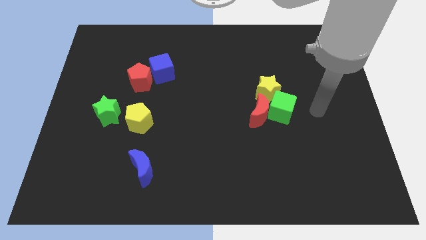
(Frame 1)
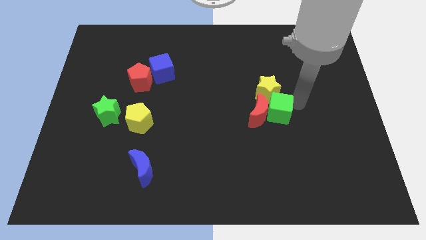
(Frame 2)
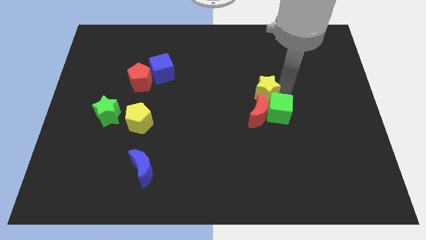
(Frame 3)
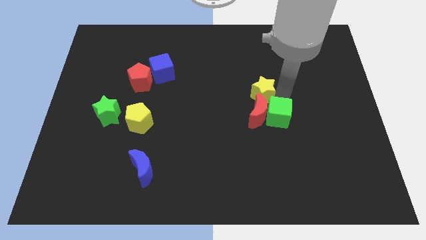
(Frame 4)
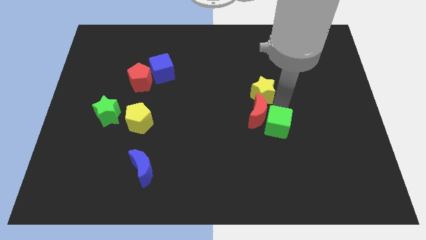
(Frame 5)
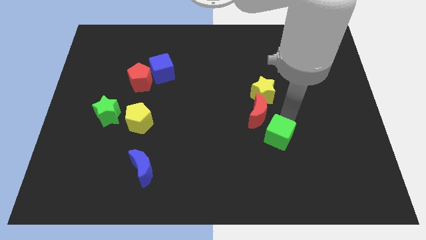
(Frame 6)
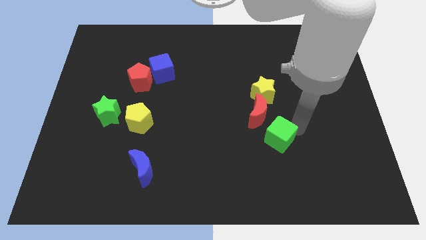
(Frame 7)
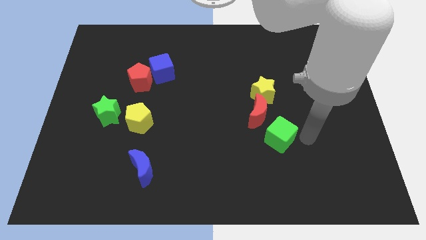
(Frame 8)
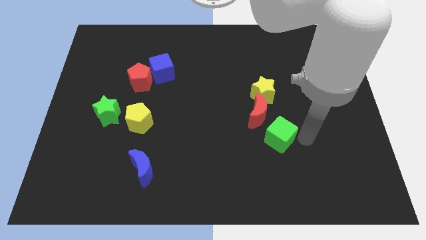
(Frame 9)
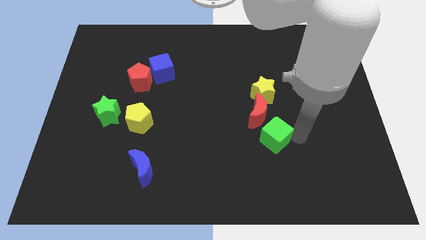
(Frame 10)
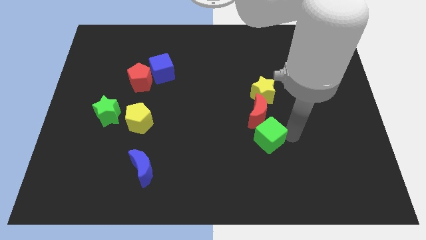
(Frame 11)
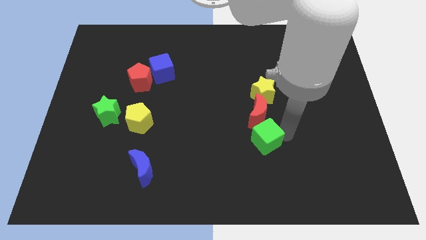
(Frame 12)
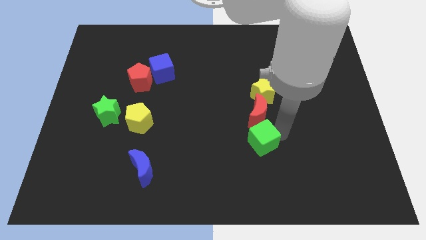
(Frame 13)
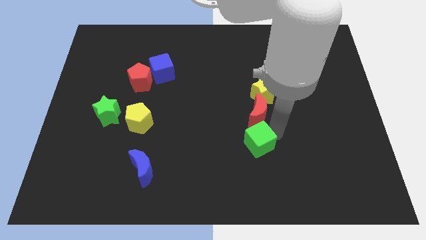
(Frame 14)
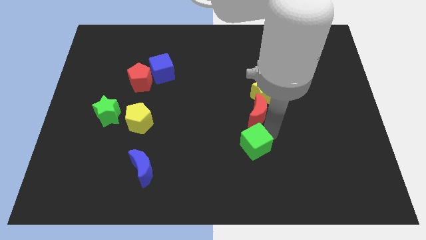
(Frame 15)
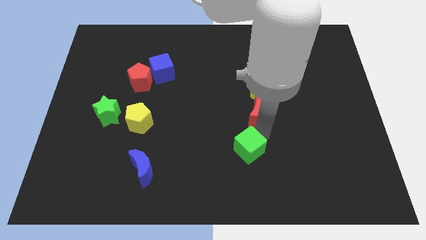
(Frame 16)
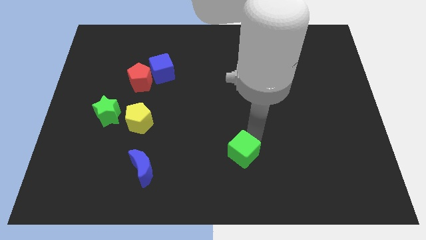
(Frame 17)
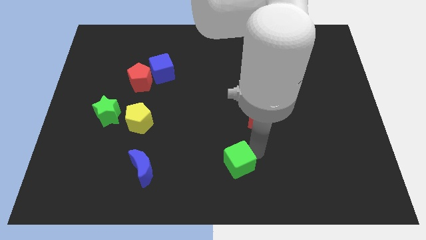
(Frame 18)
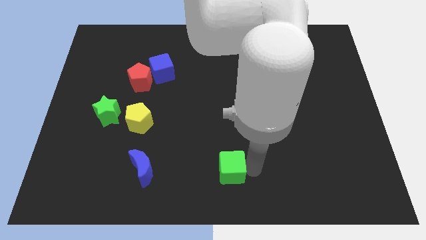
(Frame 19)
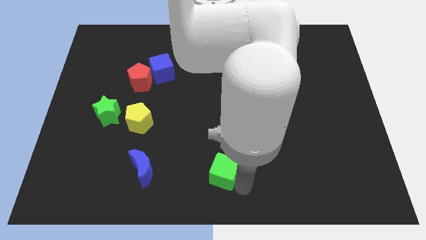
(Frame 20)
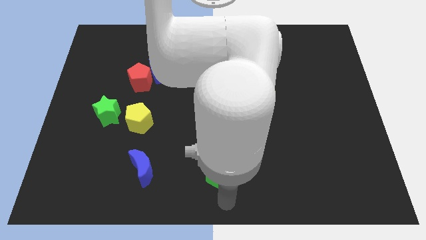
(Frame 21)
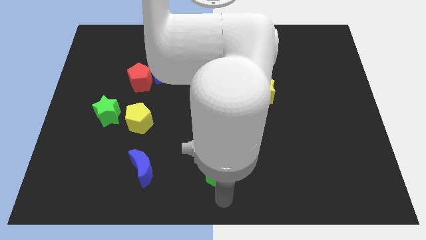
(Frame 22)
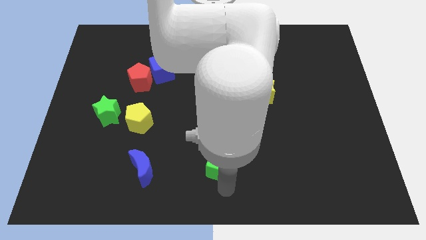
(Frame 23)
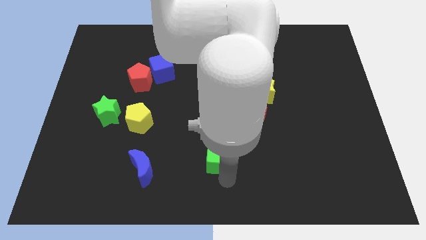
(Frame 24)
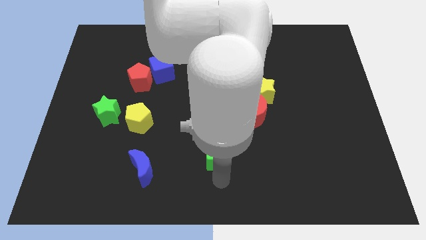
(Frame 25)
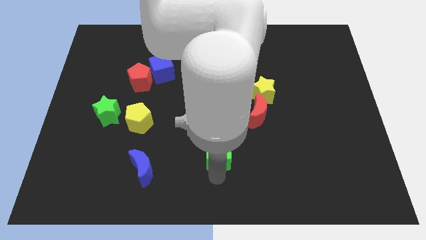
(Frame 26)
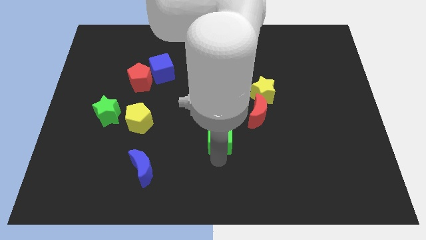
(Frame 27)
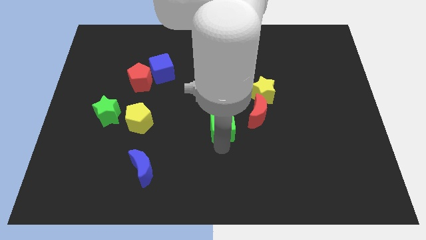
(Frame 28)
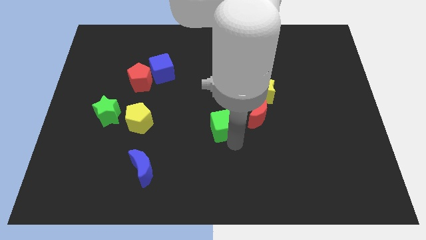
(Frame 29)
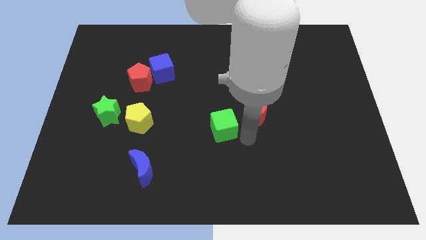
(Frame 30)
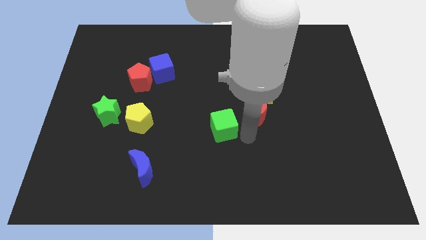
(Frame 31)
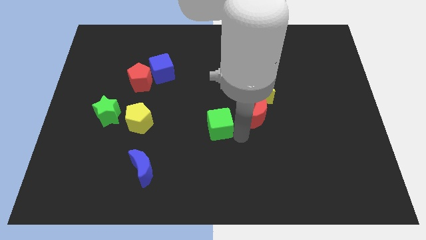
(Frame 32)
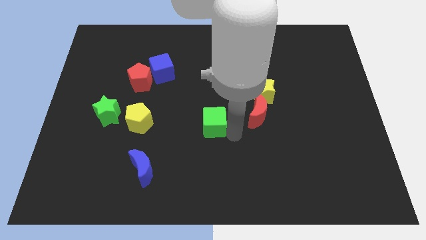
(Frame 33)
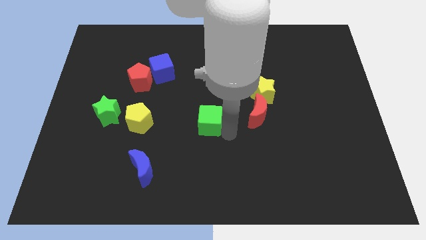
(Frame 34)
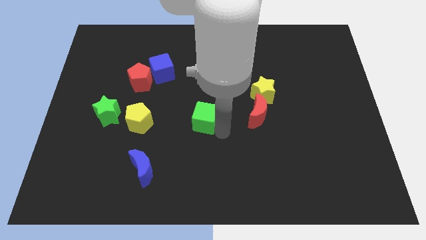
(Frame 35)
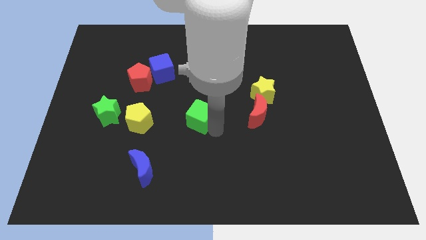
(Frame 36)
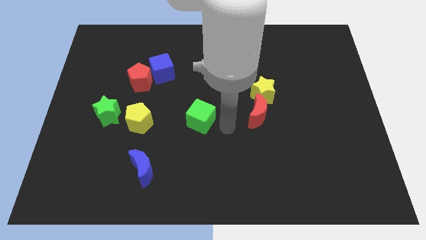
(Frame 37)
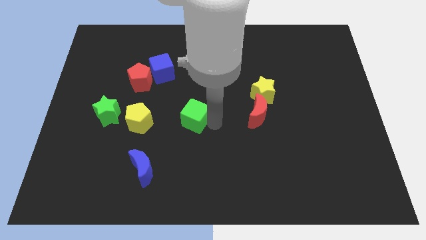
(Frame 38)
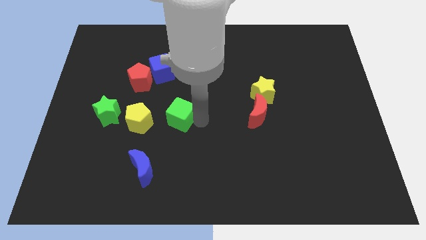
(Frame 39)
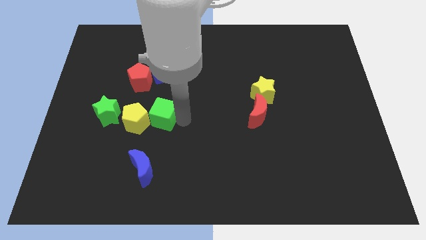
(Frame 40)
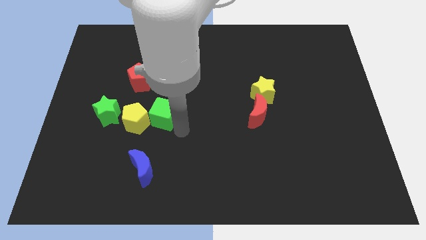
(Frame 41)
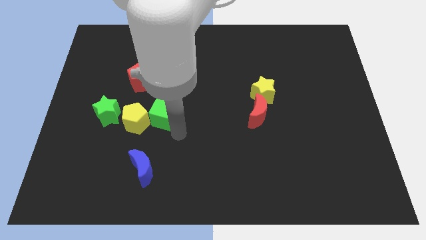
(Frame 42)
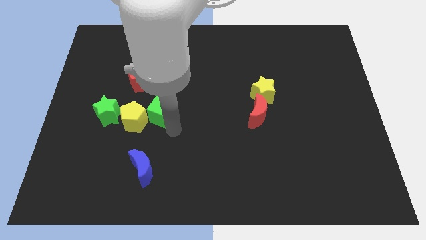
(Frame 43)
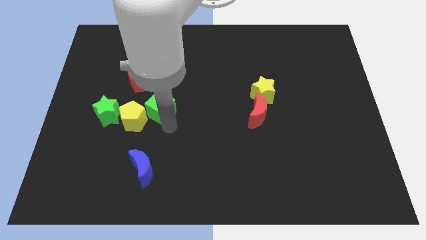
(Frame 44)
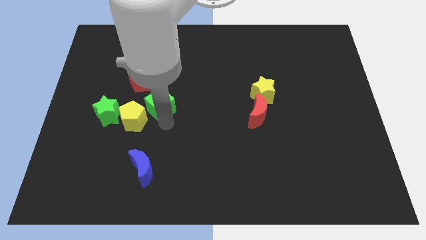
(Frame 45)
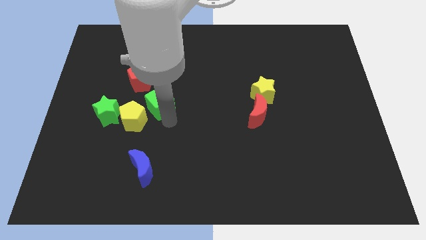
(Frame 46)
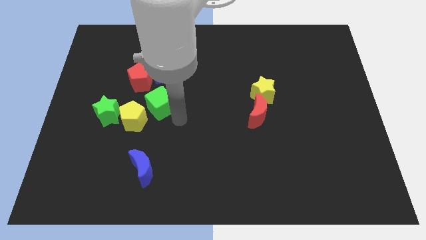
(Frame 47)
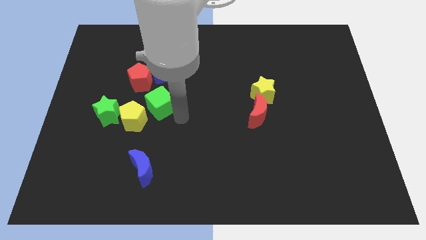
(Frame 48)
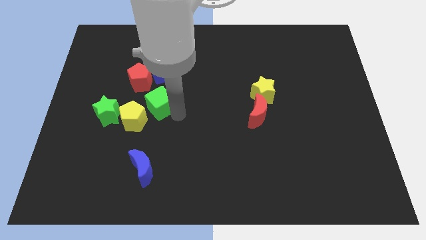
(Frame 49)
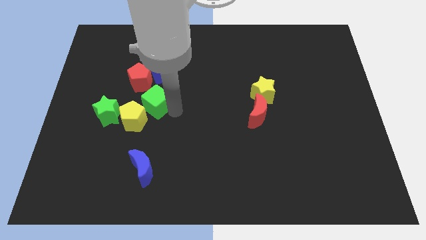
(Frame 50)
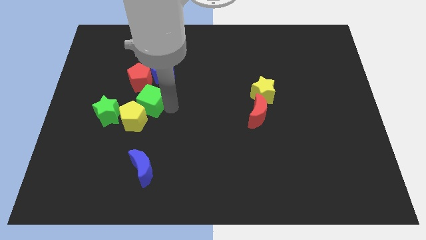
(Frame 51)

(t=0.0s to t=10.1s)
push the green cube to the top right side of the green star

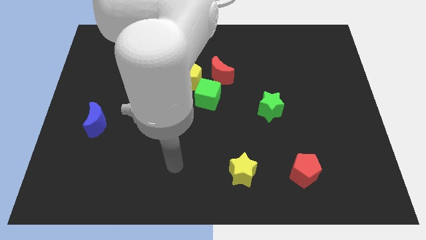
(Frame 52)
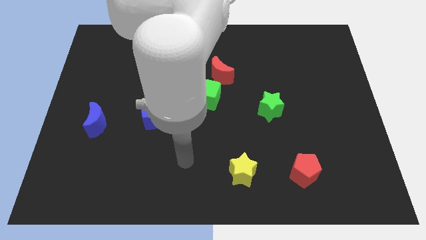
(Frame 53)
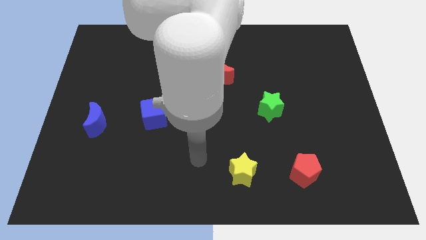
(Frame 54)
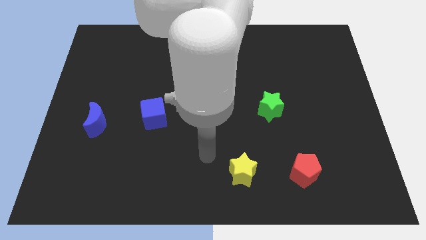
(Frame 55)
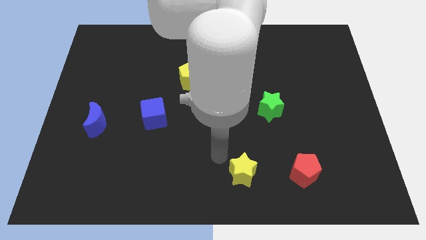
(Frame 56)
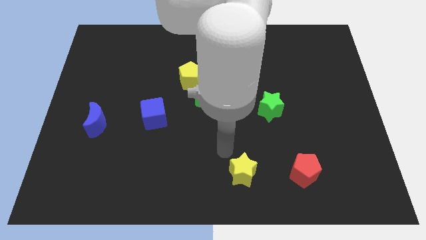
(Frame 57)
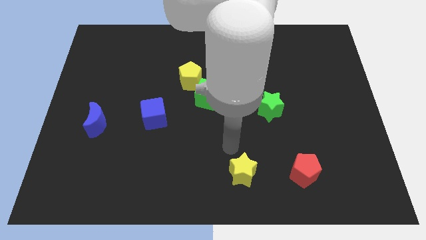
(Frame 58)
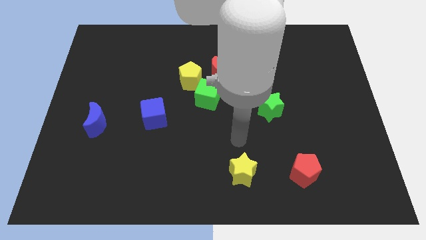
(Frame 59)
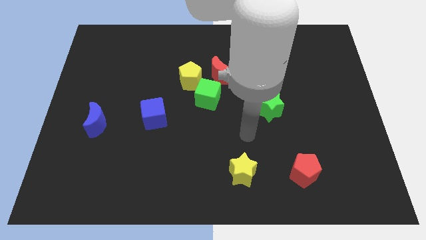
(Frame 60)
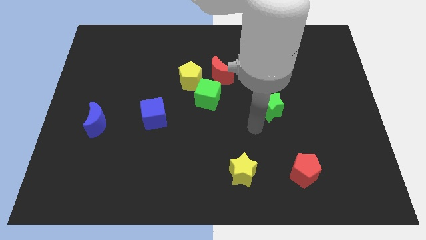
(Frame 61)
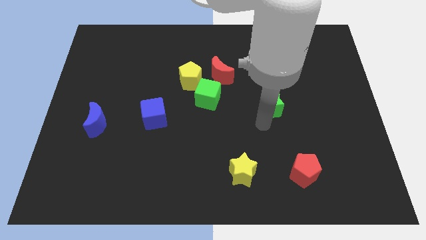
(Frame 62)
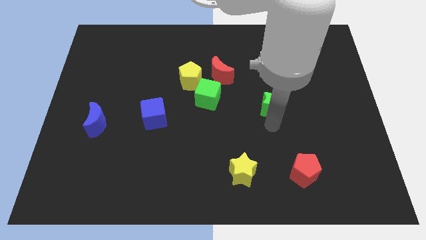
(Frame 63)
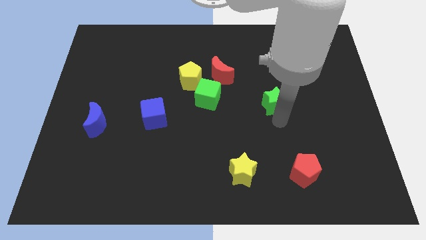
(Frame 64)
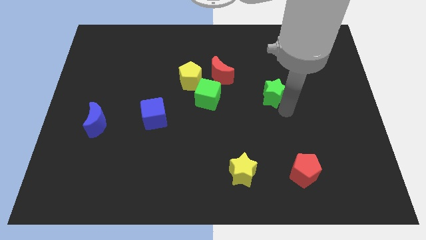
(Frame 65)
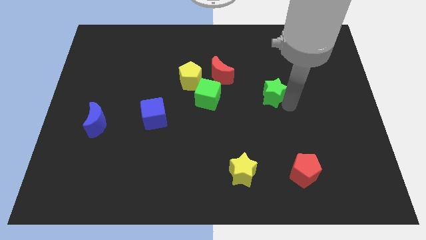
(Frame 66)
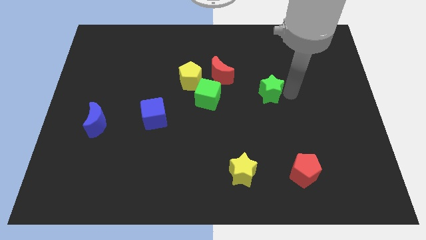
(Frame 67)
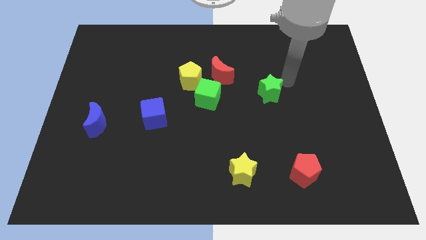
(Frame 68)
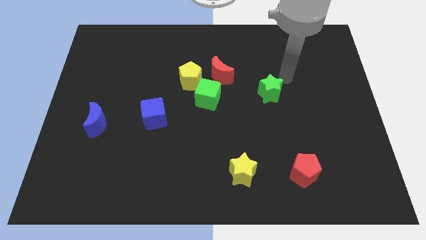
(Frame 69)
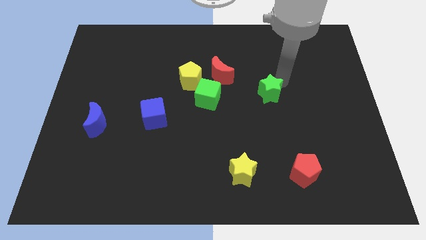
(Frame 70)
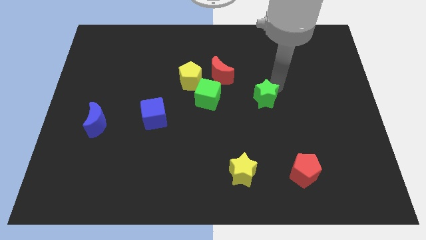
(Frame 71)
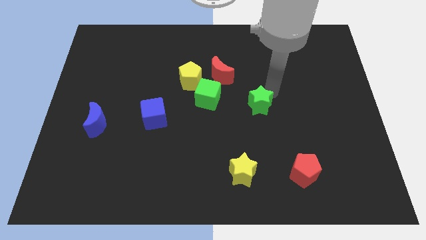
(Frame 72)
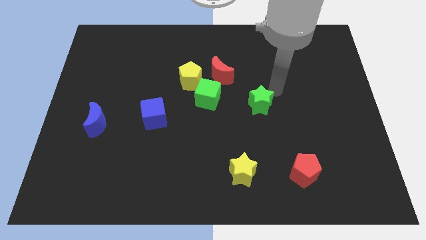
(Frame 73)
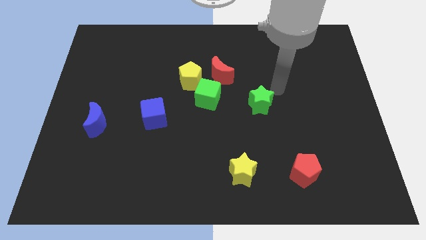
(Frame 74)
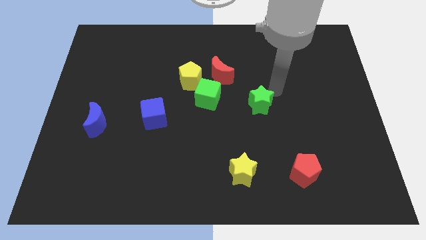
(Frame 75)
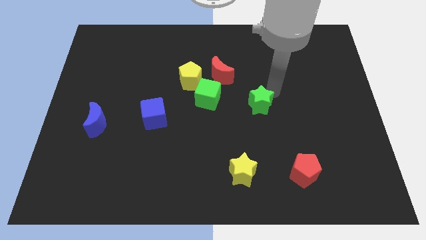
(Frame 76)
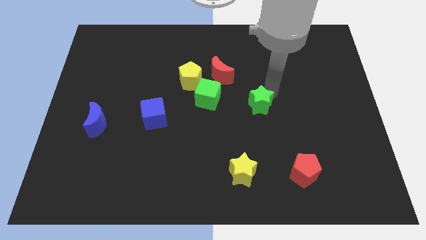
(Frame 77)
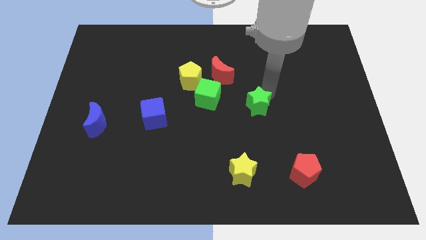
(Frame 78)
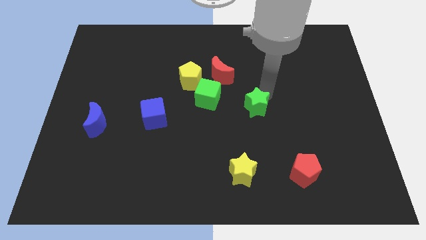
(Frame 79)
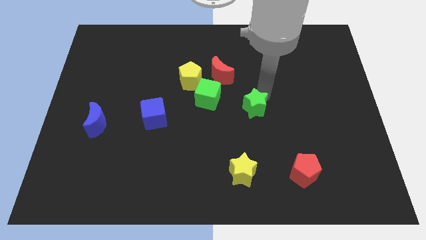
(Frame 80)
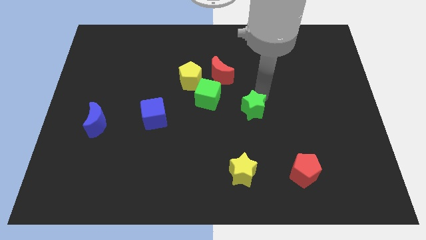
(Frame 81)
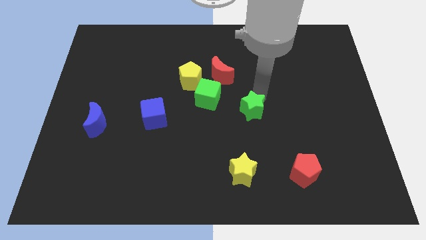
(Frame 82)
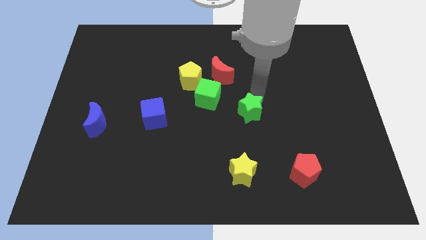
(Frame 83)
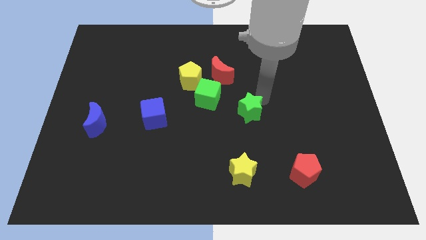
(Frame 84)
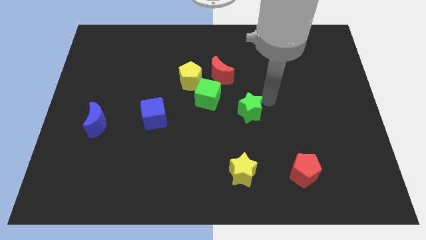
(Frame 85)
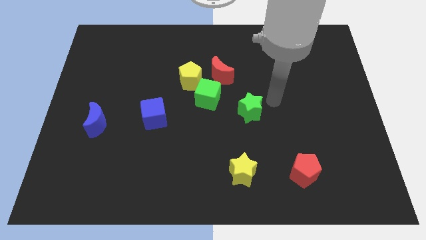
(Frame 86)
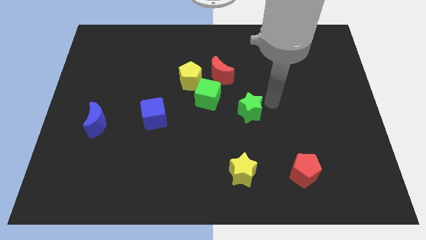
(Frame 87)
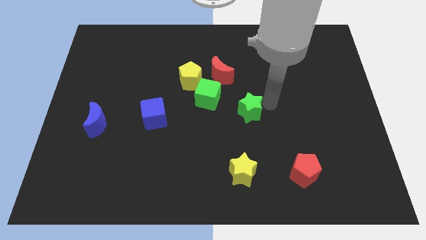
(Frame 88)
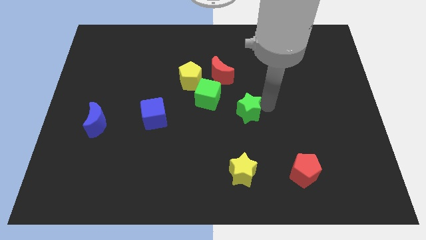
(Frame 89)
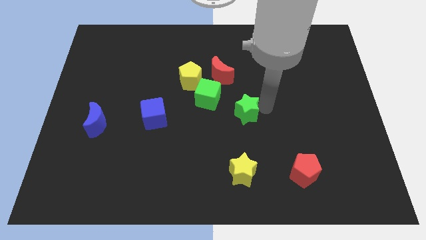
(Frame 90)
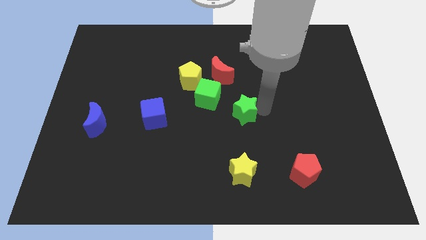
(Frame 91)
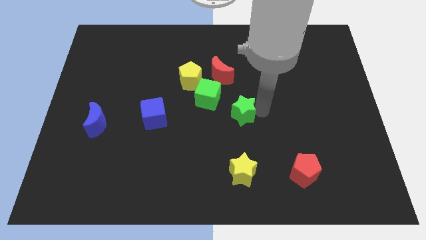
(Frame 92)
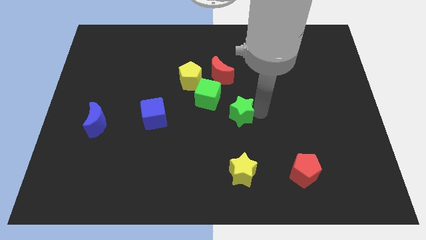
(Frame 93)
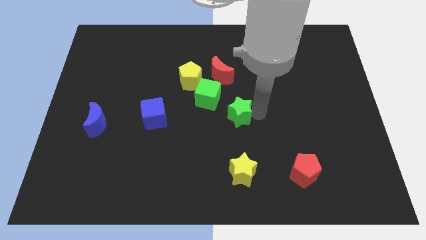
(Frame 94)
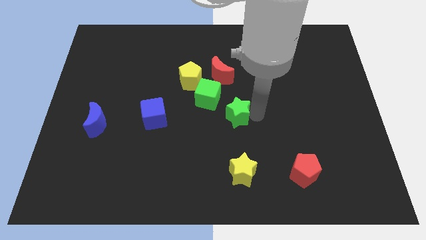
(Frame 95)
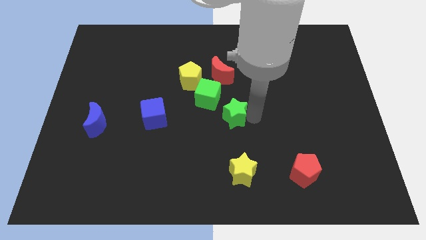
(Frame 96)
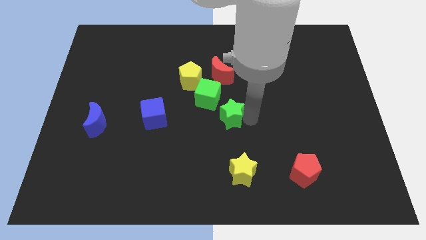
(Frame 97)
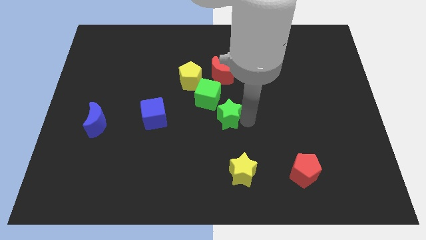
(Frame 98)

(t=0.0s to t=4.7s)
put the green star to the bottom side of the green cube
